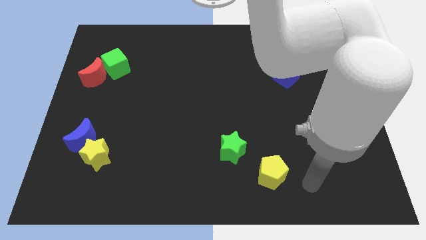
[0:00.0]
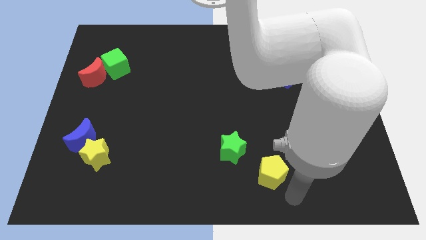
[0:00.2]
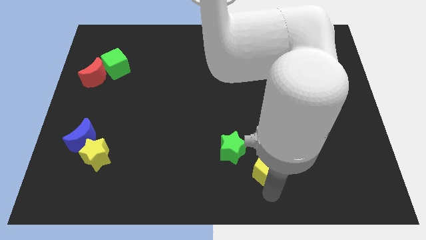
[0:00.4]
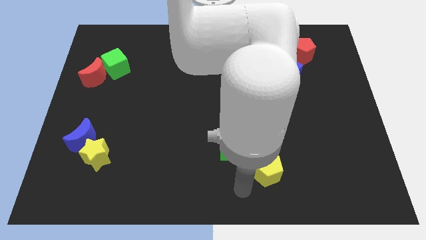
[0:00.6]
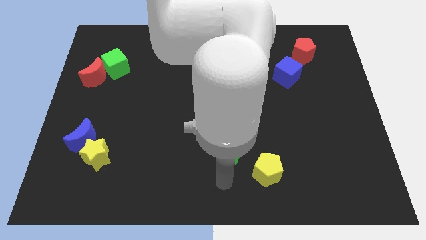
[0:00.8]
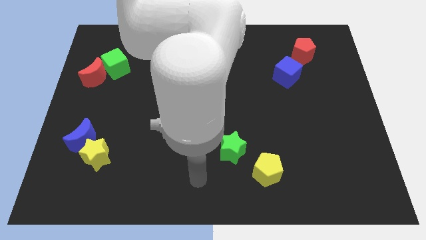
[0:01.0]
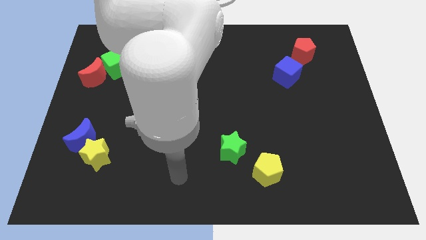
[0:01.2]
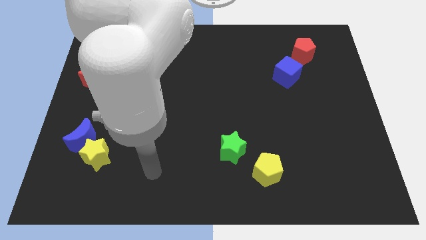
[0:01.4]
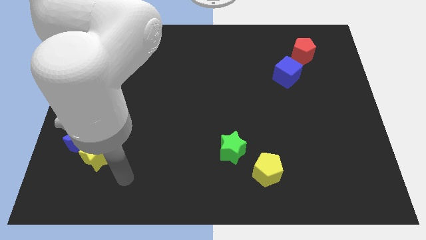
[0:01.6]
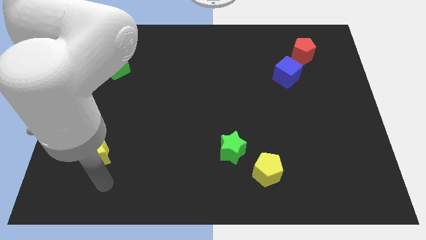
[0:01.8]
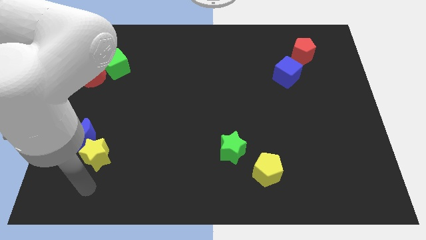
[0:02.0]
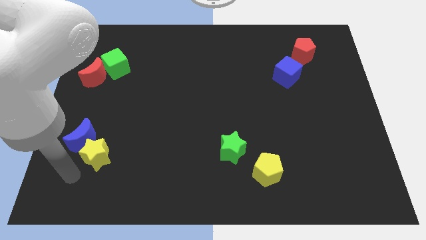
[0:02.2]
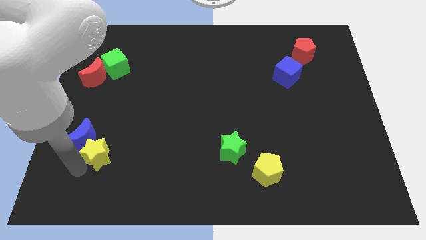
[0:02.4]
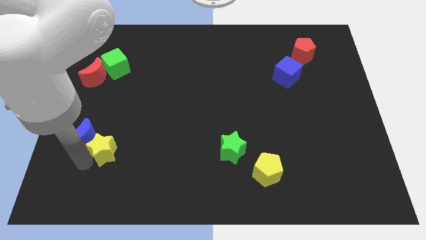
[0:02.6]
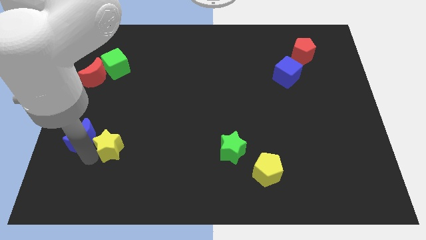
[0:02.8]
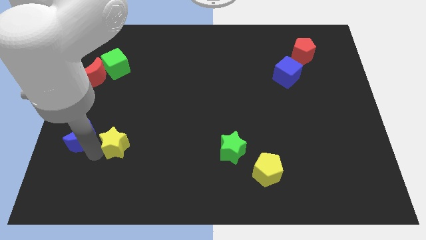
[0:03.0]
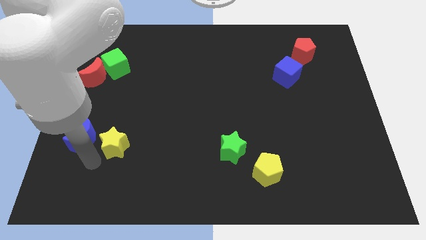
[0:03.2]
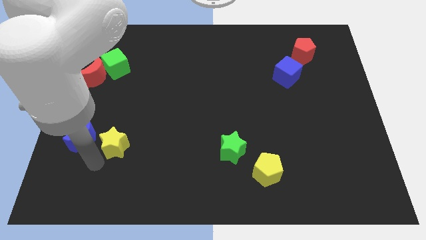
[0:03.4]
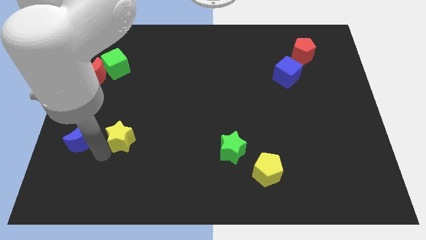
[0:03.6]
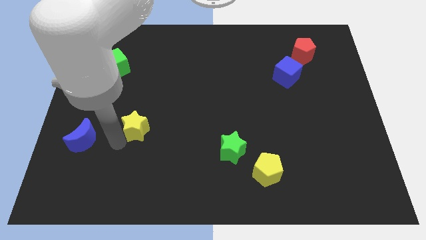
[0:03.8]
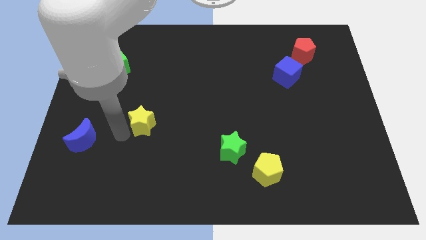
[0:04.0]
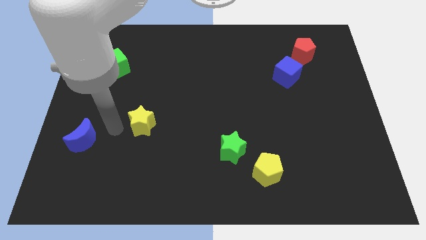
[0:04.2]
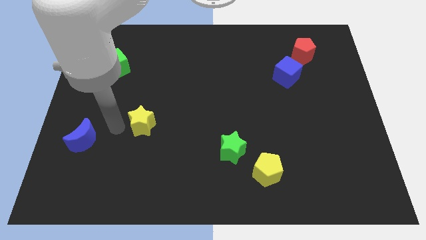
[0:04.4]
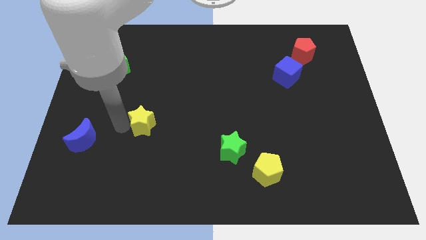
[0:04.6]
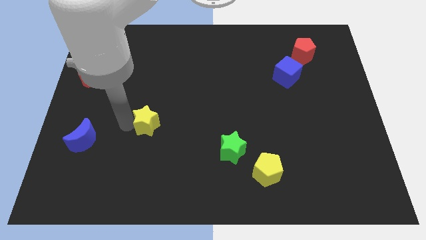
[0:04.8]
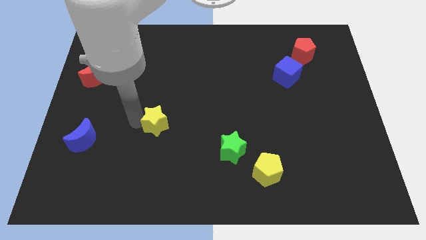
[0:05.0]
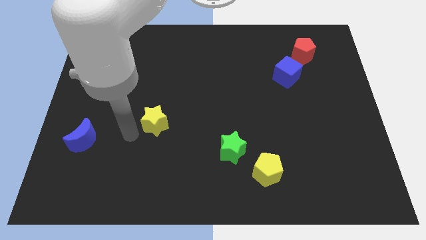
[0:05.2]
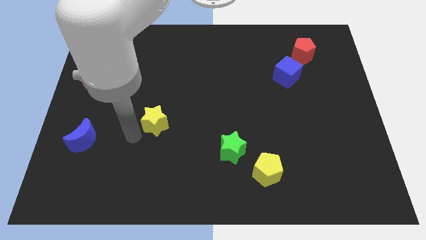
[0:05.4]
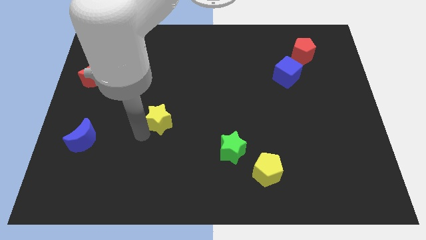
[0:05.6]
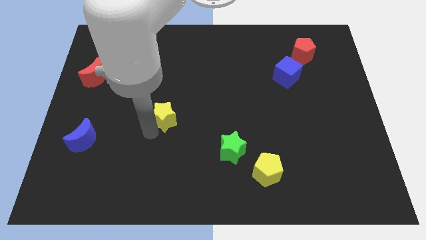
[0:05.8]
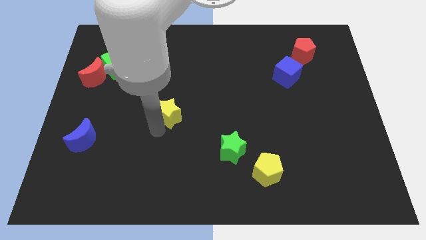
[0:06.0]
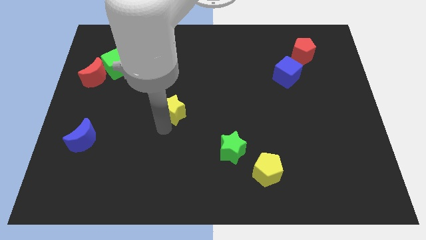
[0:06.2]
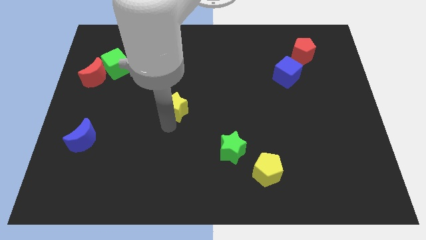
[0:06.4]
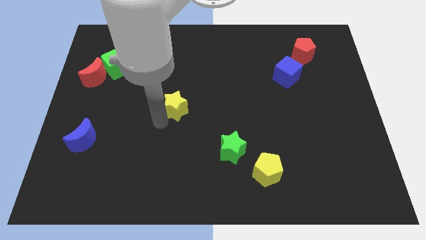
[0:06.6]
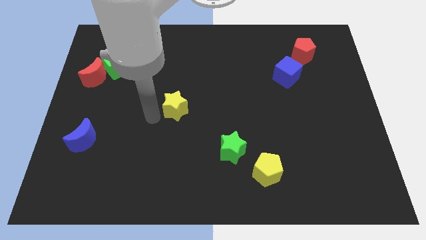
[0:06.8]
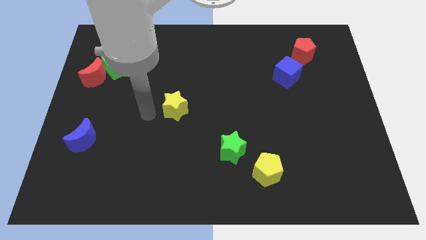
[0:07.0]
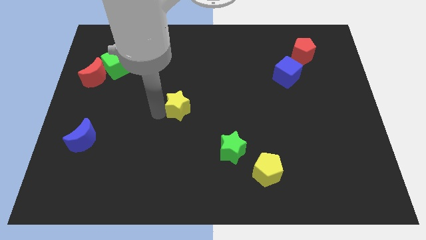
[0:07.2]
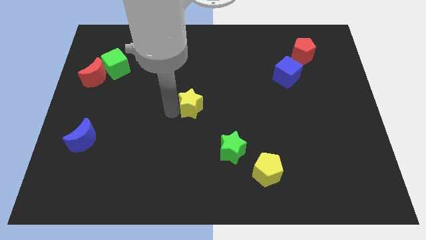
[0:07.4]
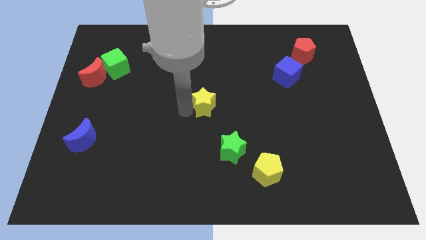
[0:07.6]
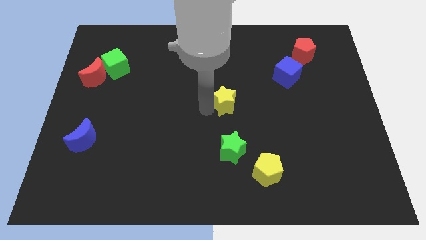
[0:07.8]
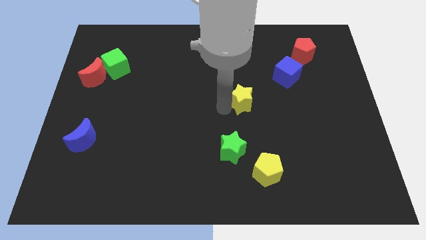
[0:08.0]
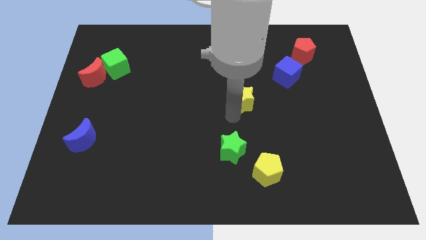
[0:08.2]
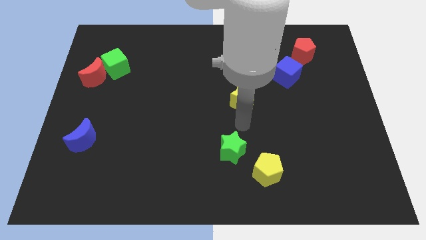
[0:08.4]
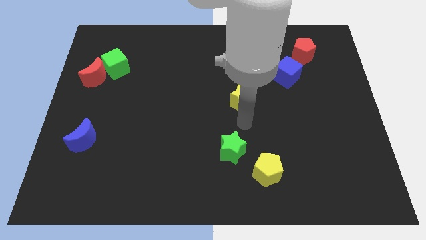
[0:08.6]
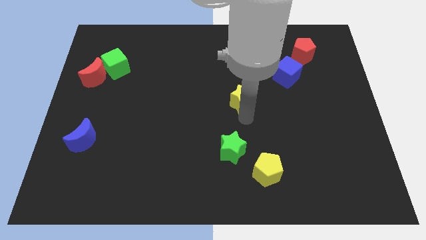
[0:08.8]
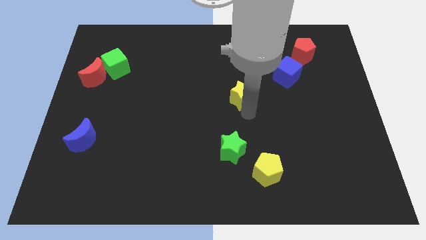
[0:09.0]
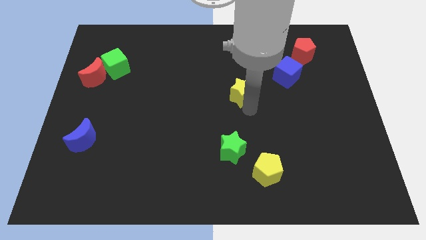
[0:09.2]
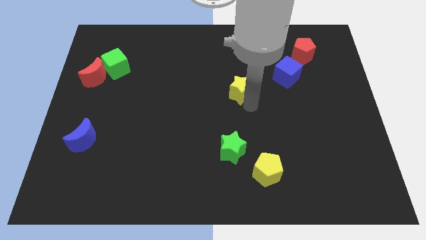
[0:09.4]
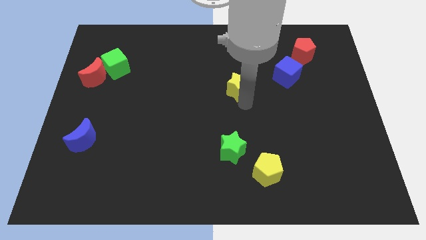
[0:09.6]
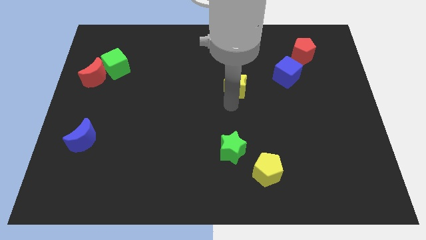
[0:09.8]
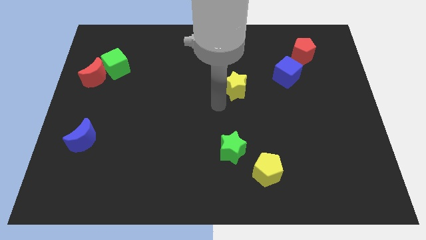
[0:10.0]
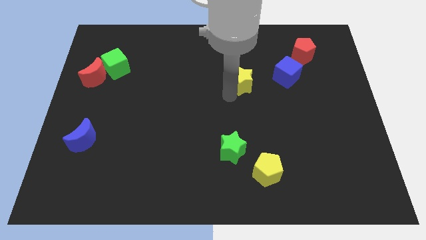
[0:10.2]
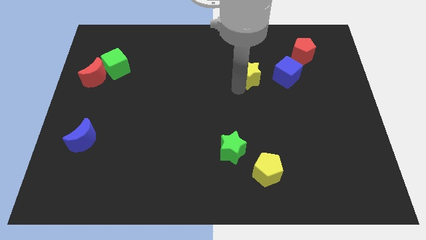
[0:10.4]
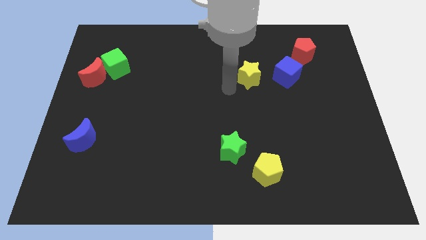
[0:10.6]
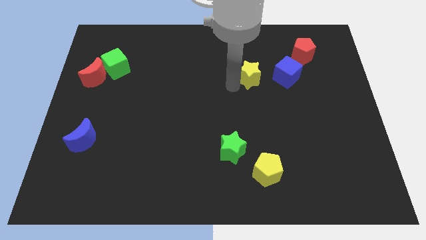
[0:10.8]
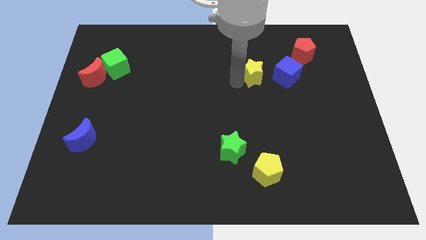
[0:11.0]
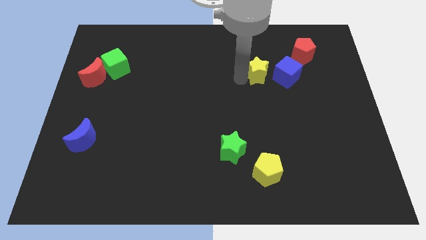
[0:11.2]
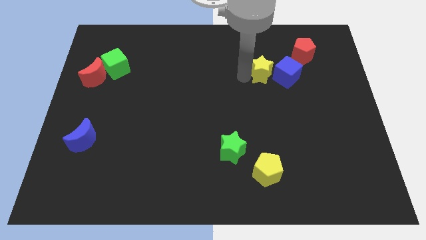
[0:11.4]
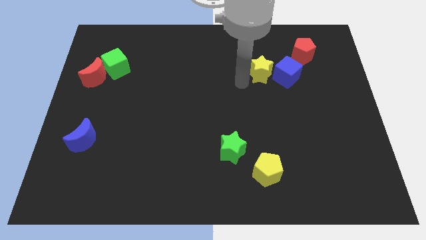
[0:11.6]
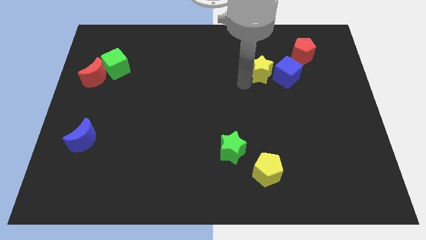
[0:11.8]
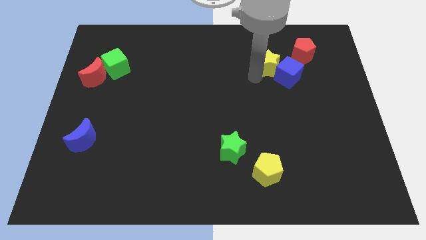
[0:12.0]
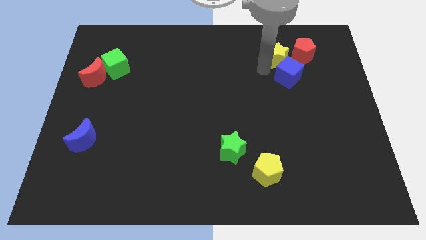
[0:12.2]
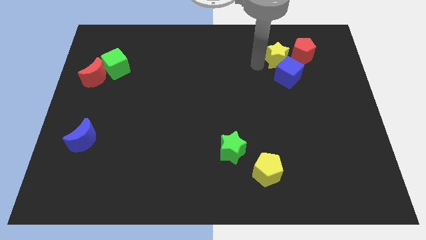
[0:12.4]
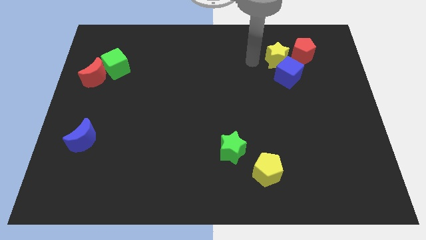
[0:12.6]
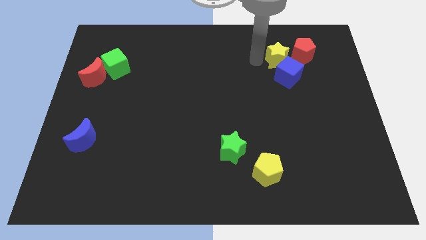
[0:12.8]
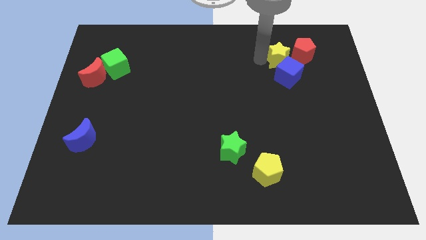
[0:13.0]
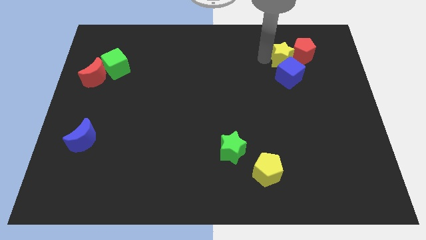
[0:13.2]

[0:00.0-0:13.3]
push the yellow star next to the red pentagon

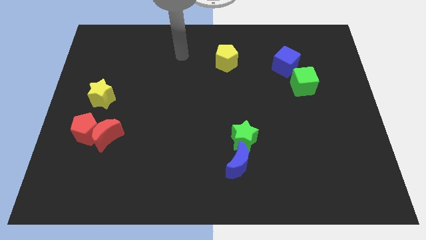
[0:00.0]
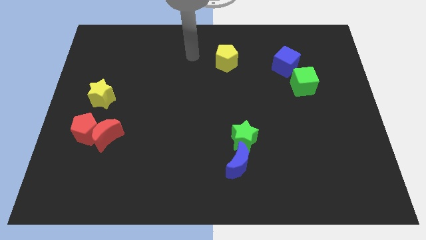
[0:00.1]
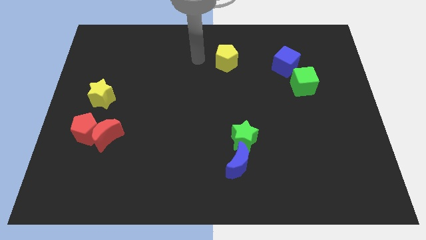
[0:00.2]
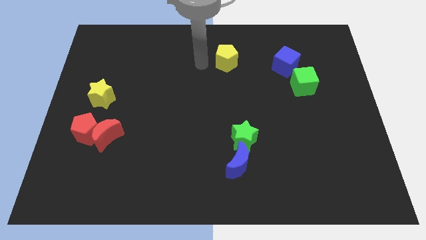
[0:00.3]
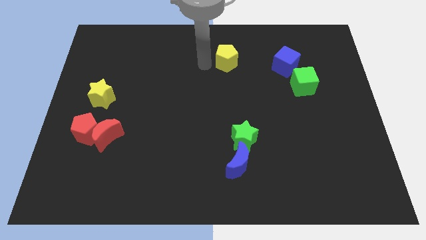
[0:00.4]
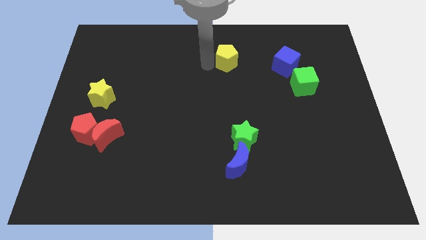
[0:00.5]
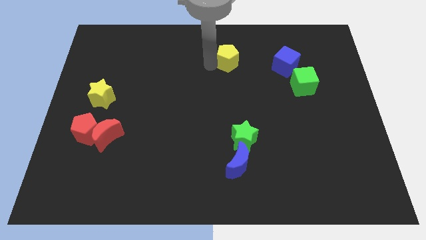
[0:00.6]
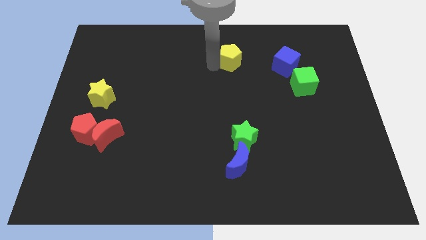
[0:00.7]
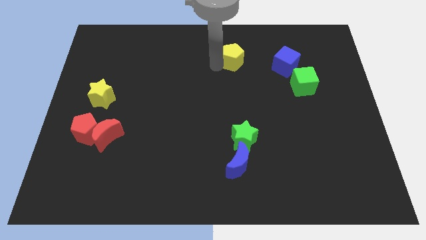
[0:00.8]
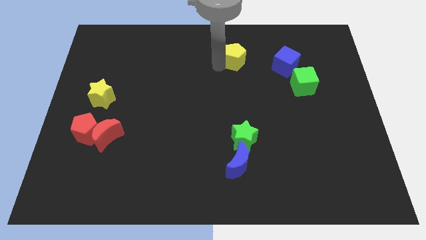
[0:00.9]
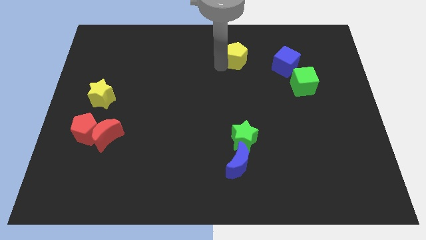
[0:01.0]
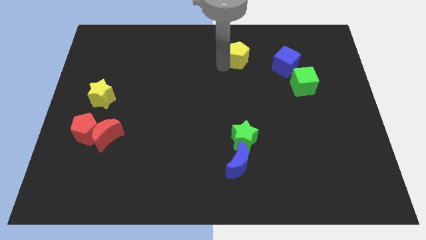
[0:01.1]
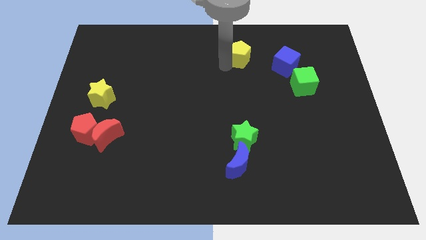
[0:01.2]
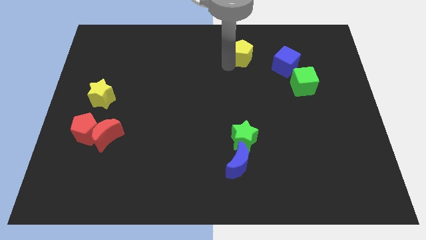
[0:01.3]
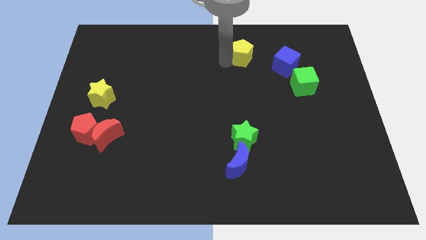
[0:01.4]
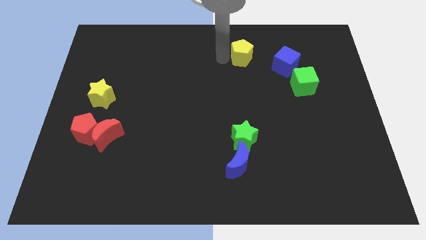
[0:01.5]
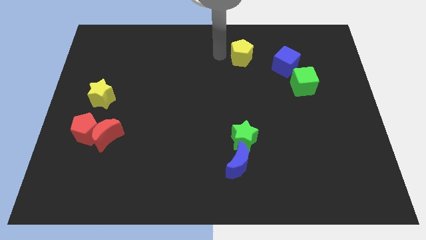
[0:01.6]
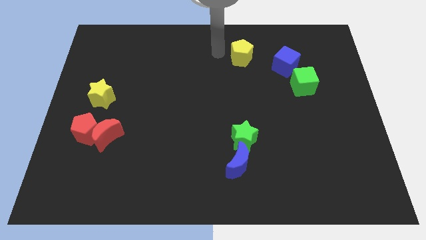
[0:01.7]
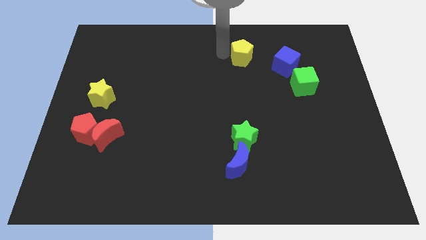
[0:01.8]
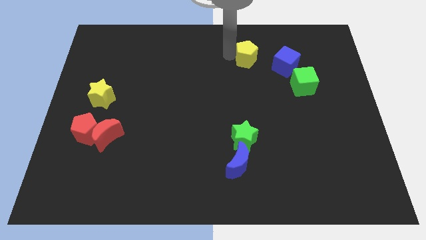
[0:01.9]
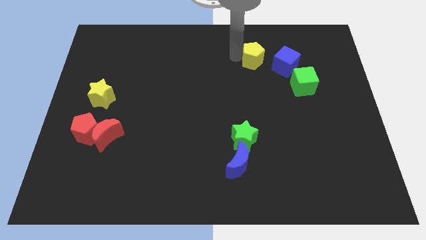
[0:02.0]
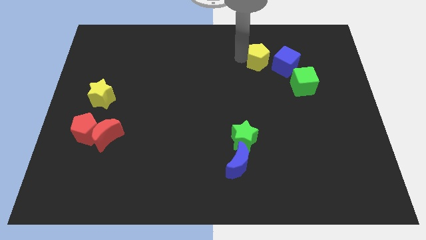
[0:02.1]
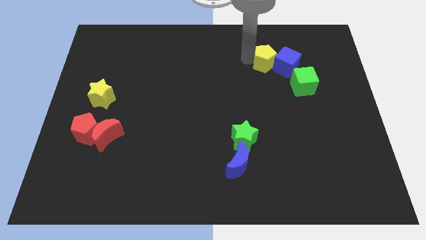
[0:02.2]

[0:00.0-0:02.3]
put the yellow pentagon next to the blue cube
